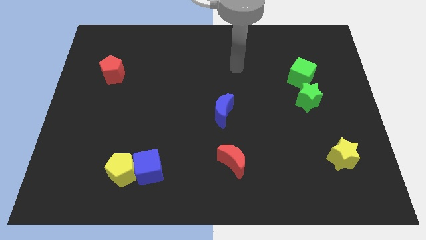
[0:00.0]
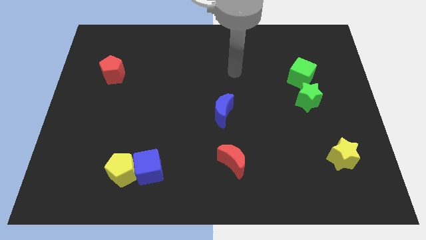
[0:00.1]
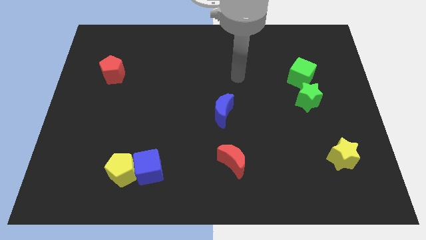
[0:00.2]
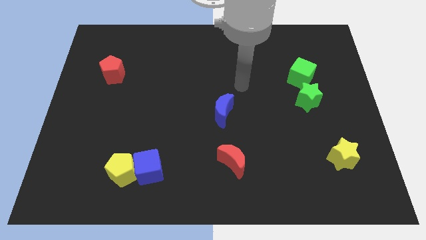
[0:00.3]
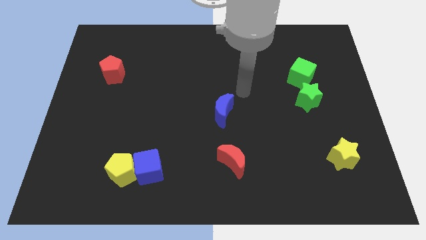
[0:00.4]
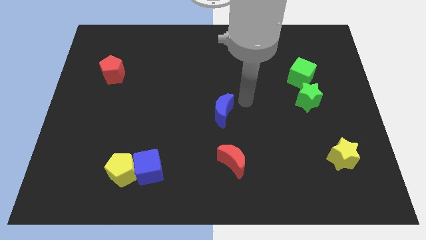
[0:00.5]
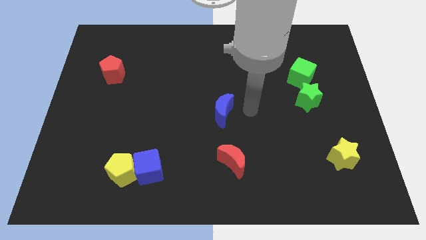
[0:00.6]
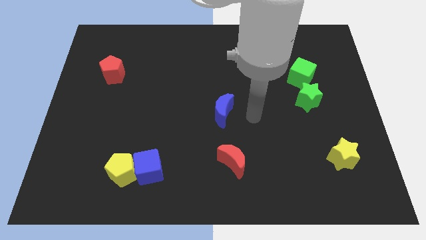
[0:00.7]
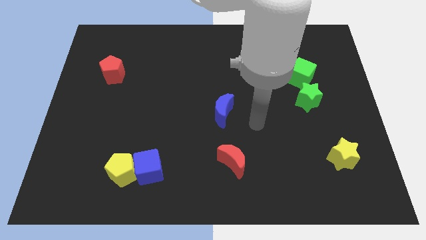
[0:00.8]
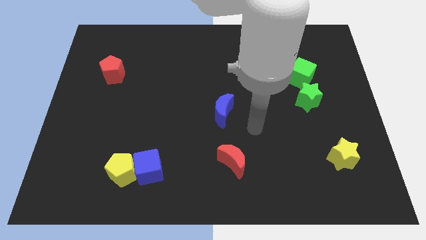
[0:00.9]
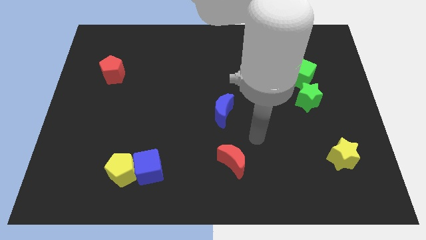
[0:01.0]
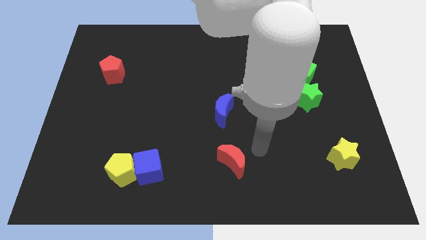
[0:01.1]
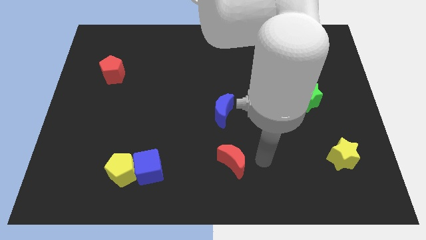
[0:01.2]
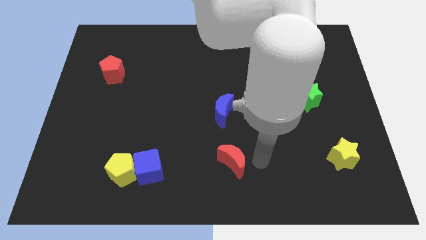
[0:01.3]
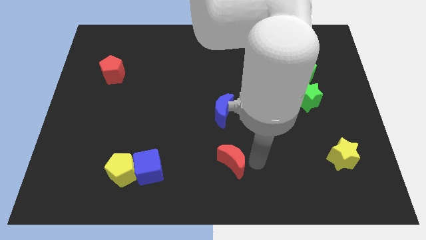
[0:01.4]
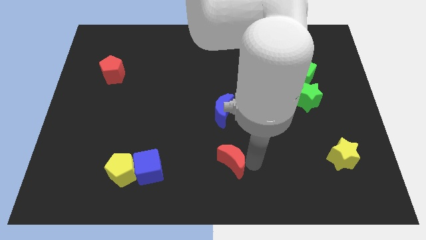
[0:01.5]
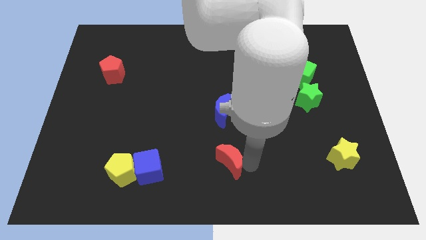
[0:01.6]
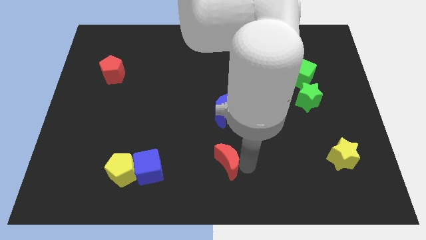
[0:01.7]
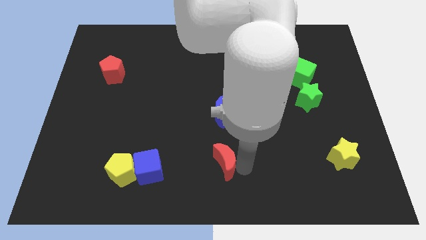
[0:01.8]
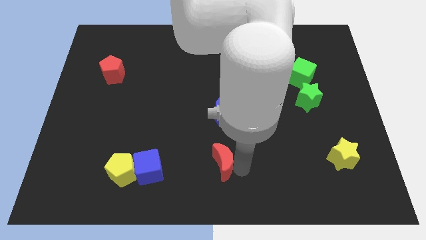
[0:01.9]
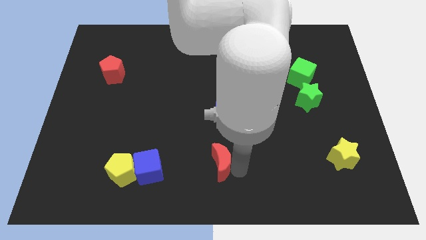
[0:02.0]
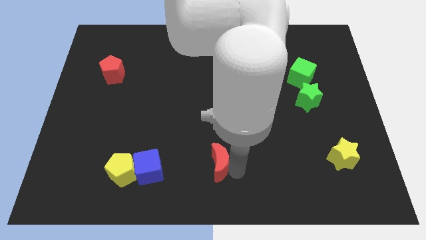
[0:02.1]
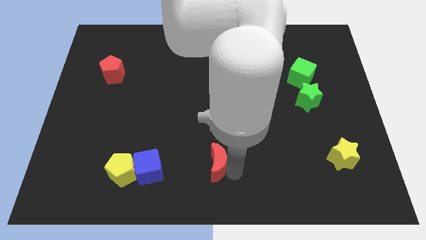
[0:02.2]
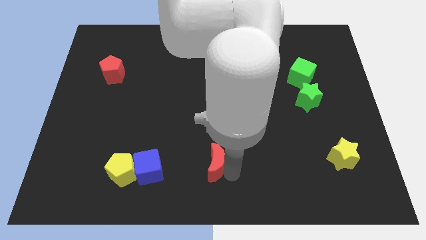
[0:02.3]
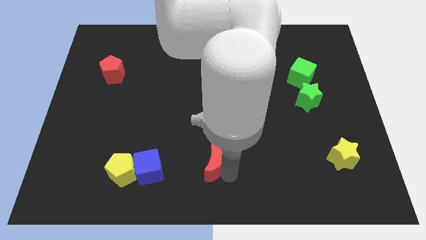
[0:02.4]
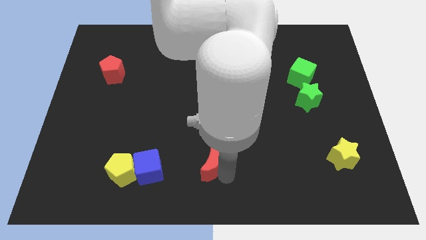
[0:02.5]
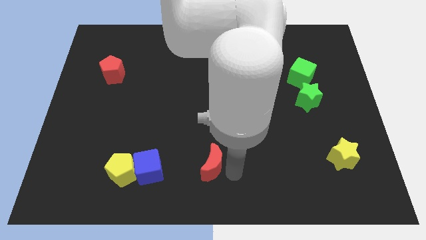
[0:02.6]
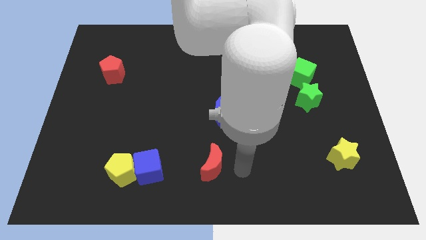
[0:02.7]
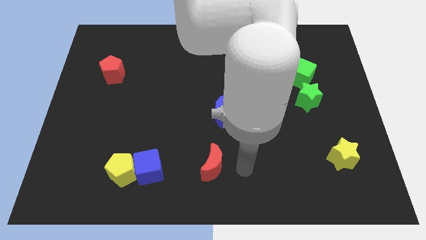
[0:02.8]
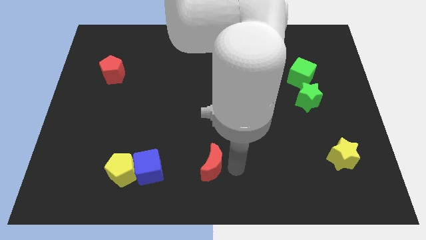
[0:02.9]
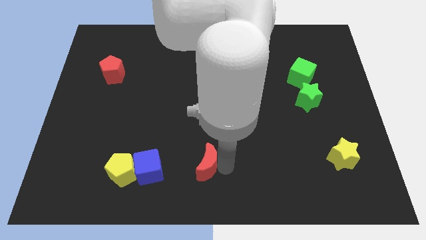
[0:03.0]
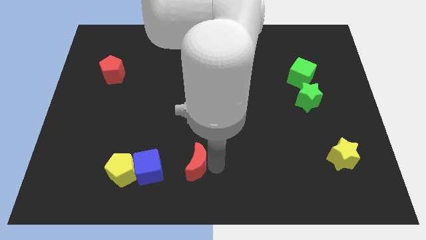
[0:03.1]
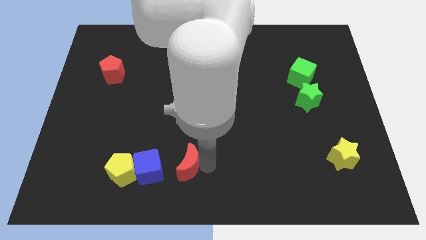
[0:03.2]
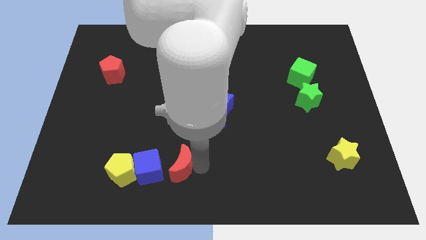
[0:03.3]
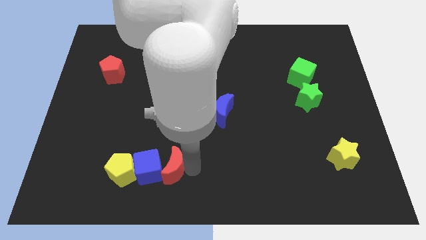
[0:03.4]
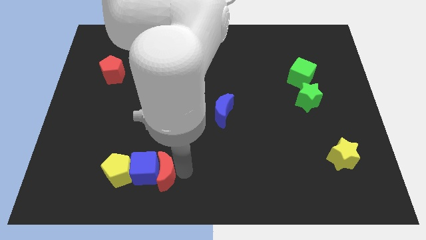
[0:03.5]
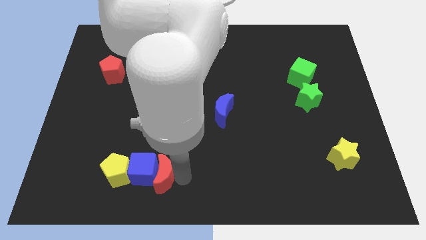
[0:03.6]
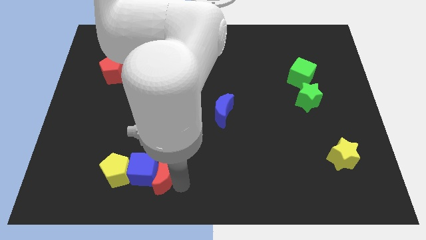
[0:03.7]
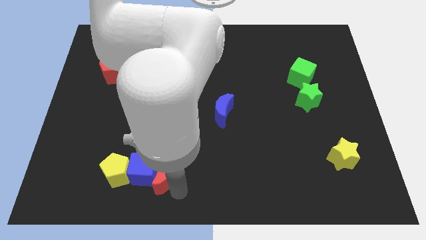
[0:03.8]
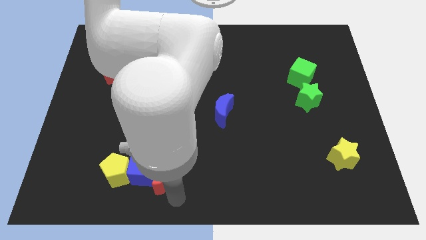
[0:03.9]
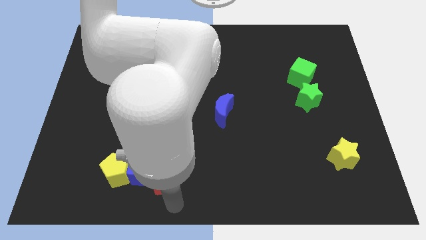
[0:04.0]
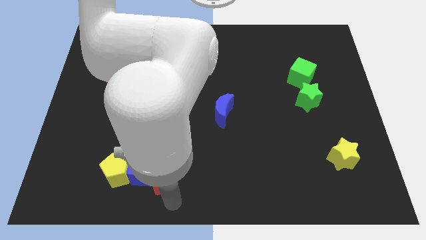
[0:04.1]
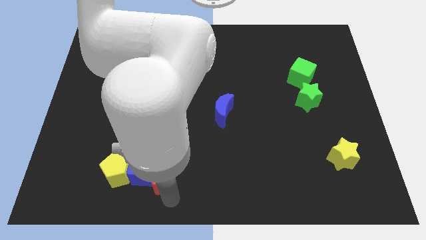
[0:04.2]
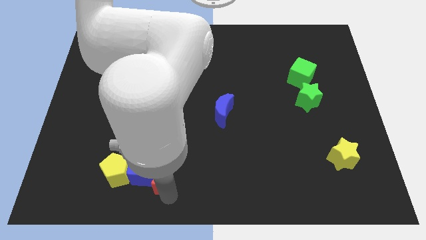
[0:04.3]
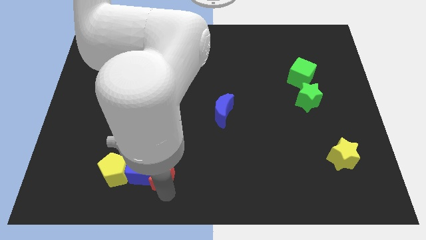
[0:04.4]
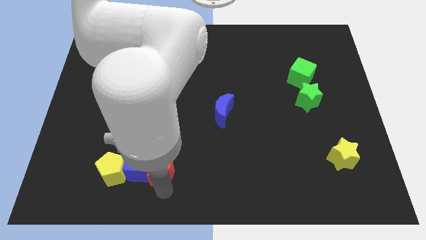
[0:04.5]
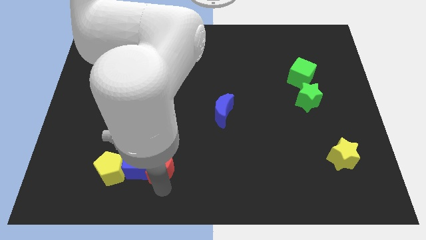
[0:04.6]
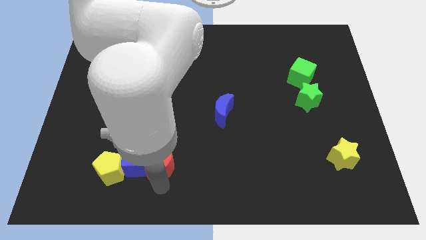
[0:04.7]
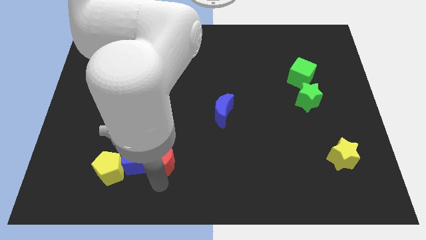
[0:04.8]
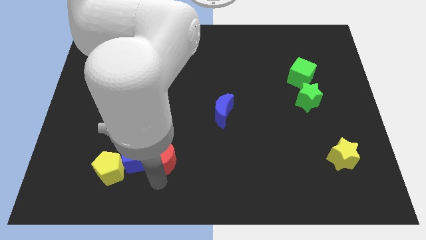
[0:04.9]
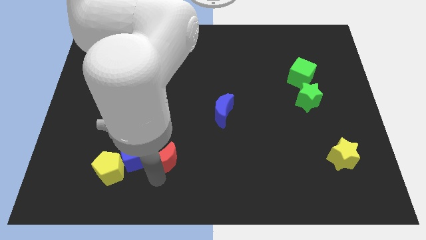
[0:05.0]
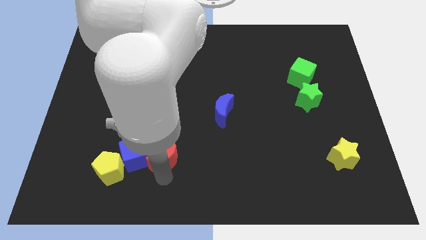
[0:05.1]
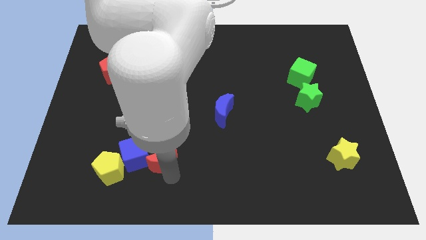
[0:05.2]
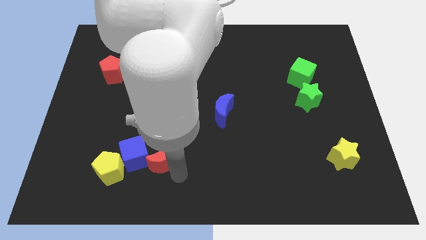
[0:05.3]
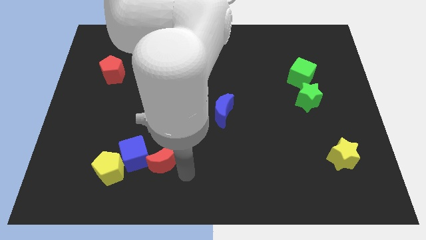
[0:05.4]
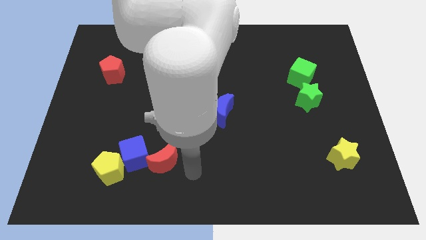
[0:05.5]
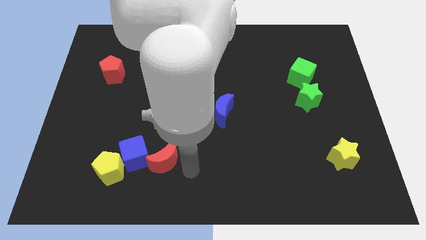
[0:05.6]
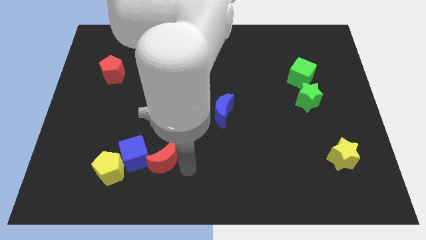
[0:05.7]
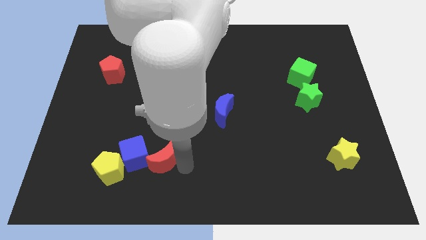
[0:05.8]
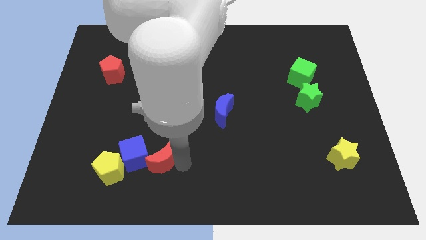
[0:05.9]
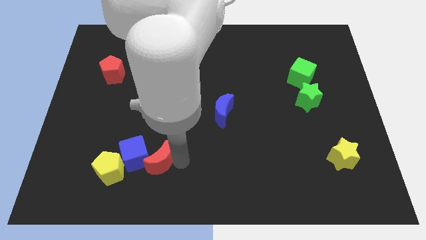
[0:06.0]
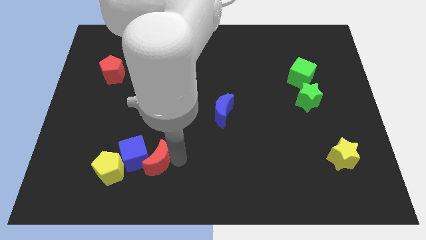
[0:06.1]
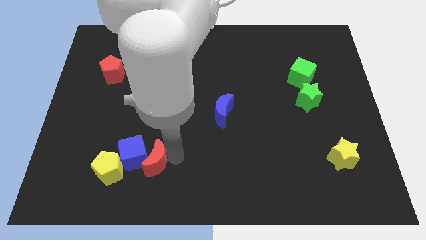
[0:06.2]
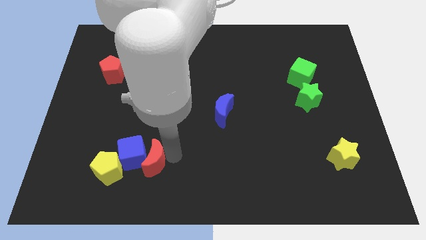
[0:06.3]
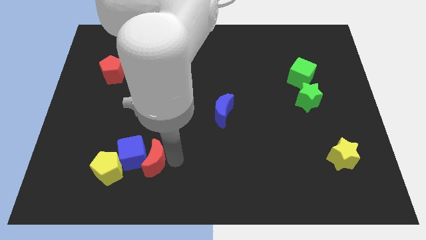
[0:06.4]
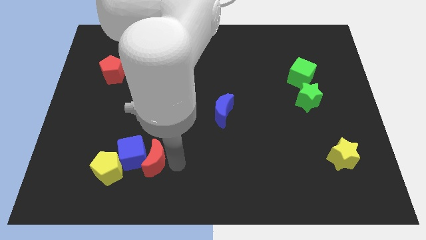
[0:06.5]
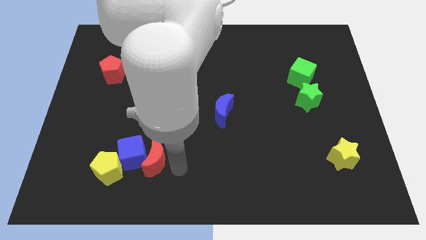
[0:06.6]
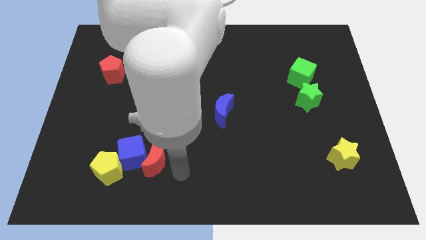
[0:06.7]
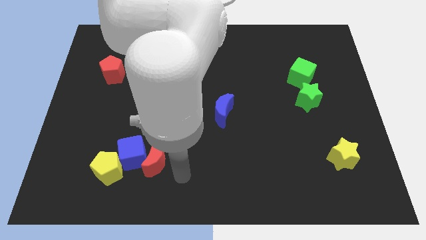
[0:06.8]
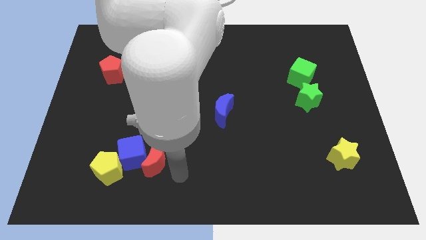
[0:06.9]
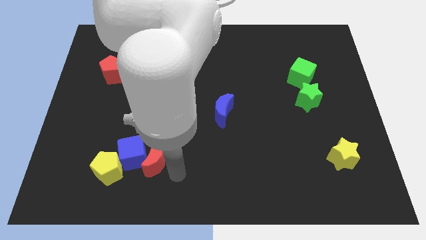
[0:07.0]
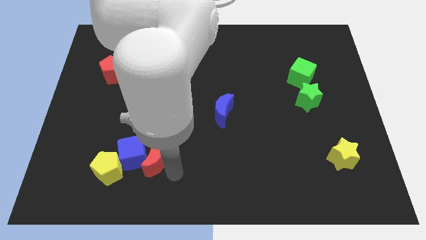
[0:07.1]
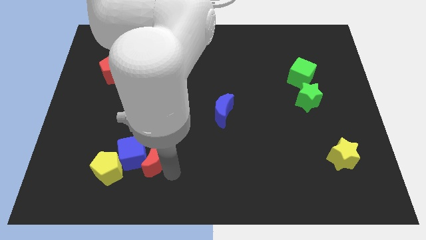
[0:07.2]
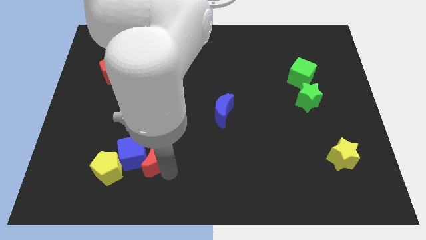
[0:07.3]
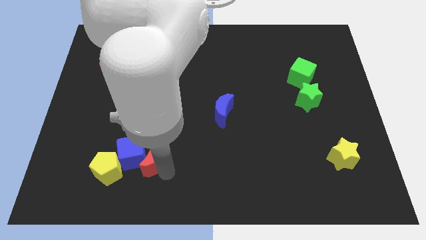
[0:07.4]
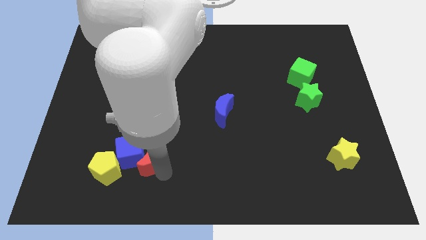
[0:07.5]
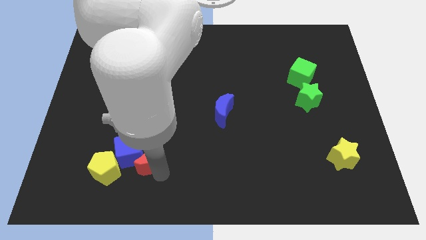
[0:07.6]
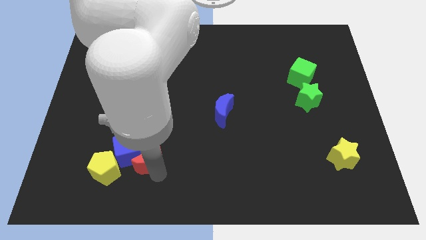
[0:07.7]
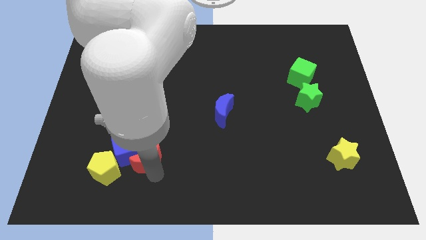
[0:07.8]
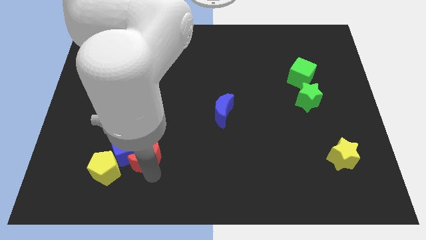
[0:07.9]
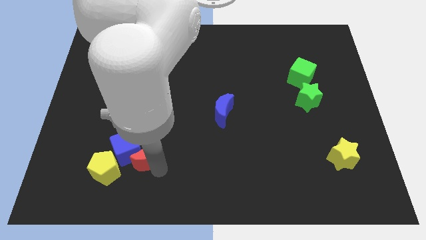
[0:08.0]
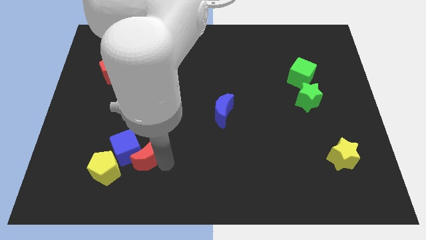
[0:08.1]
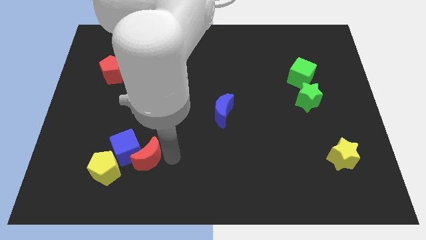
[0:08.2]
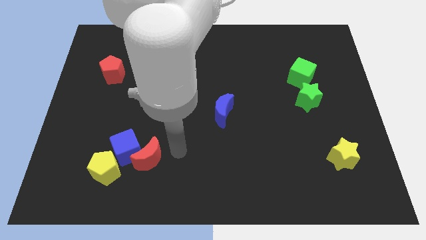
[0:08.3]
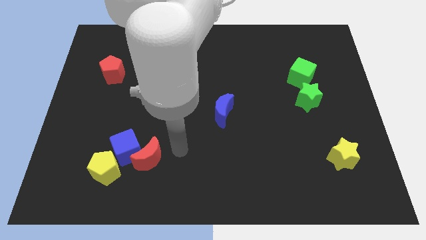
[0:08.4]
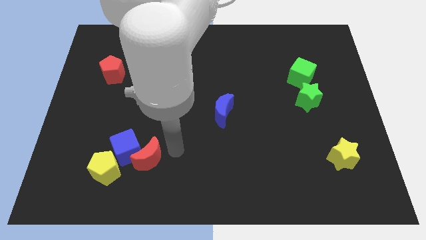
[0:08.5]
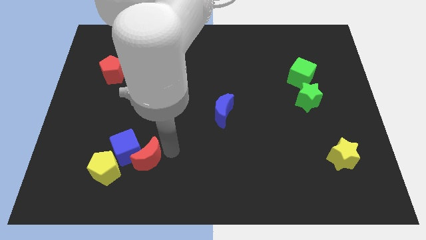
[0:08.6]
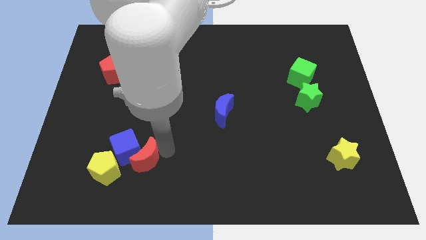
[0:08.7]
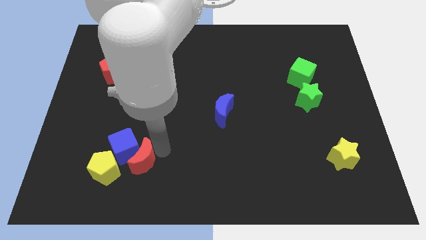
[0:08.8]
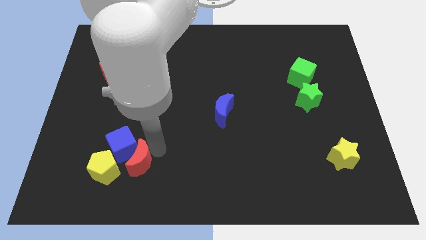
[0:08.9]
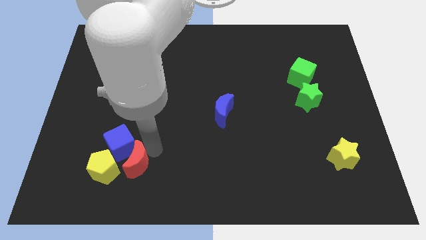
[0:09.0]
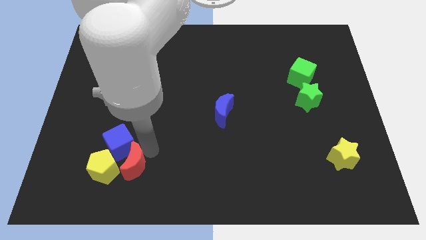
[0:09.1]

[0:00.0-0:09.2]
put the red moon towards the yellow pentagon
